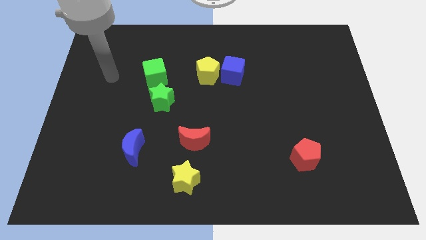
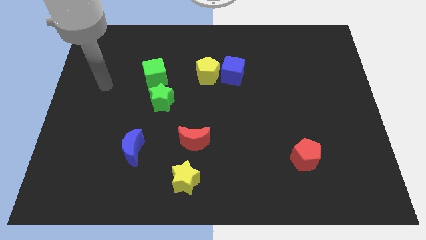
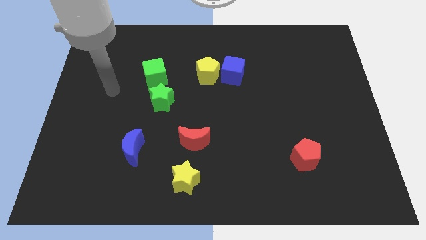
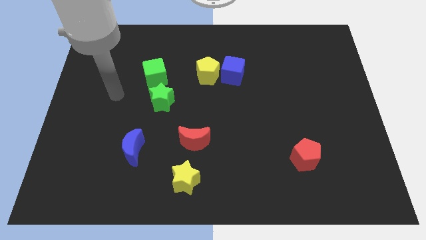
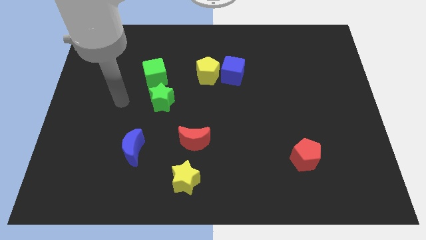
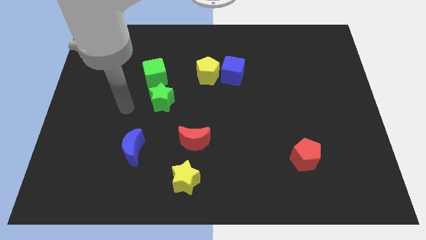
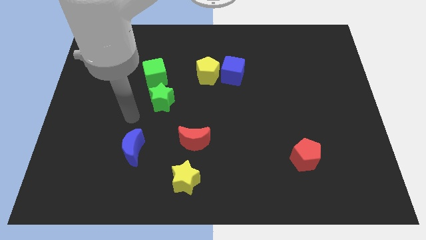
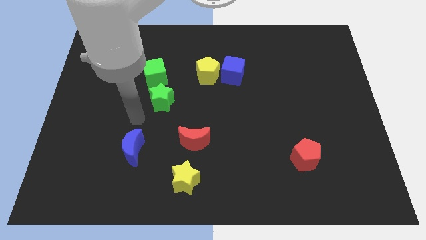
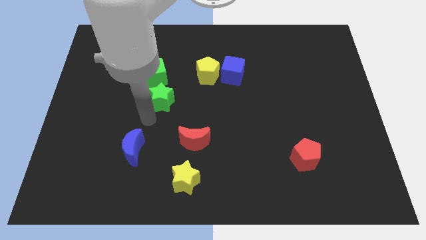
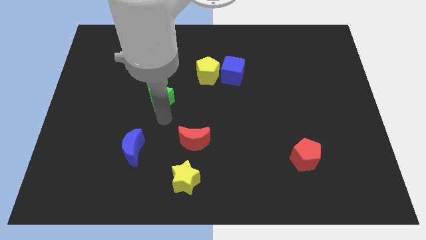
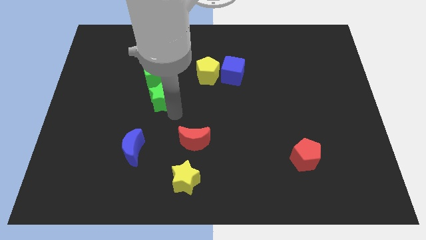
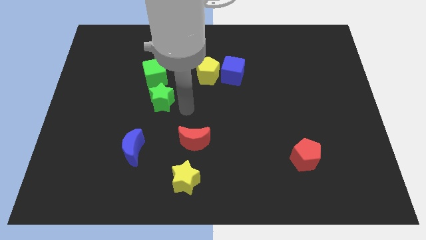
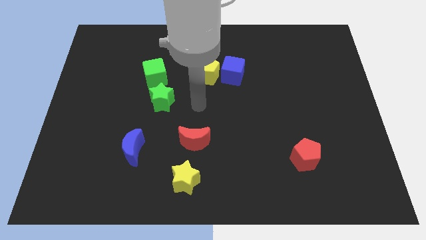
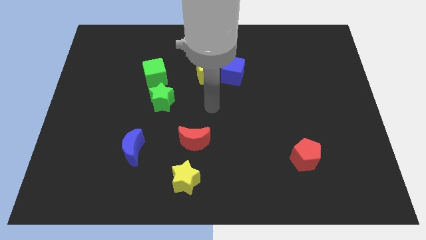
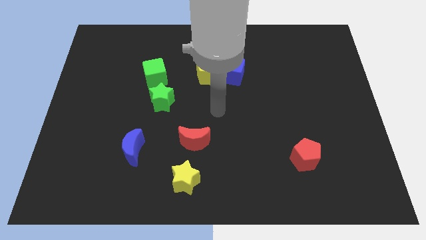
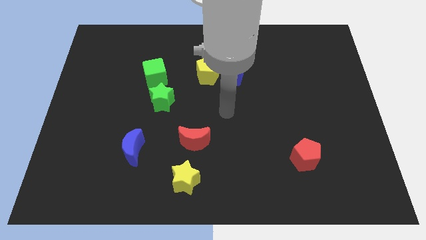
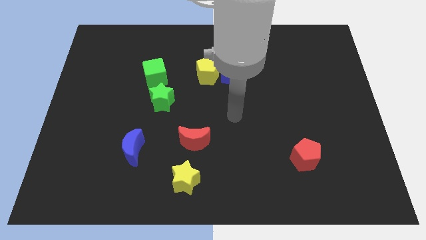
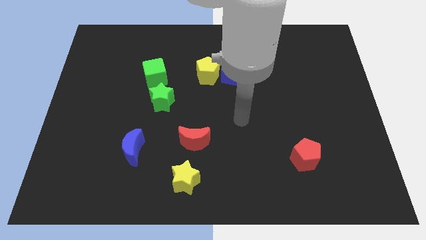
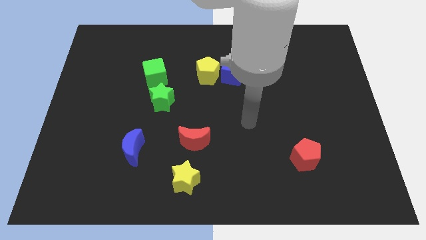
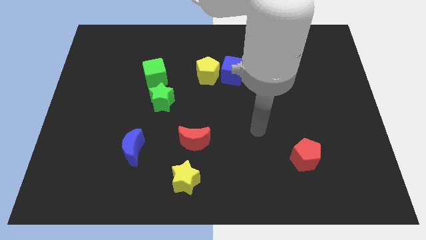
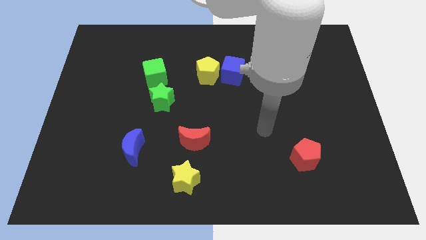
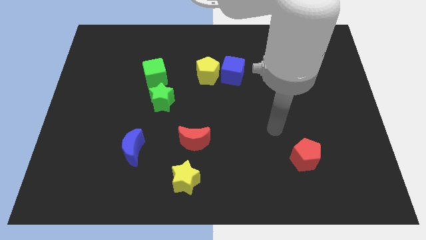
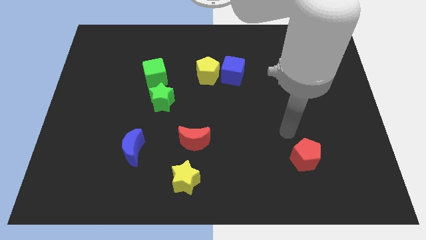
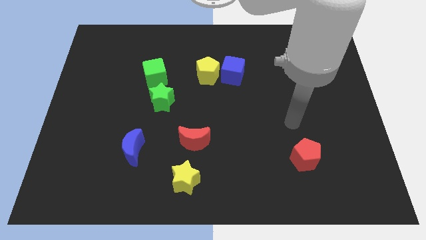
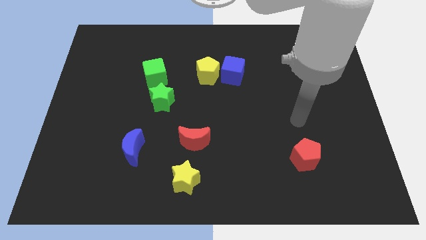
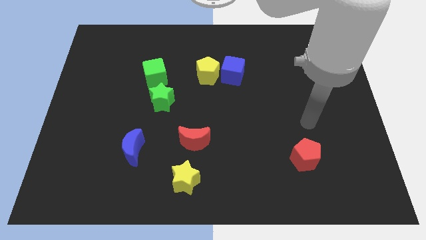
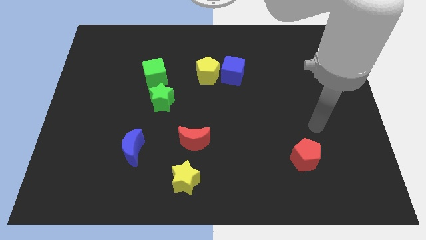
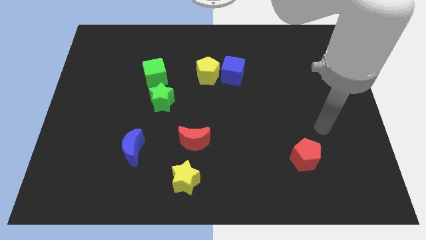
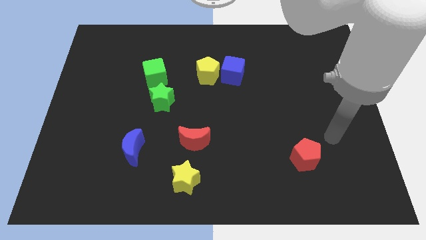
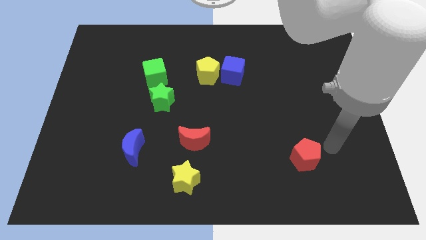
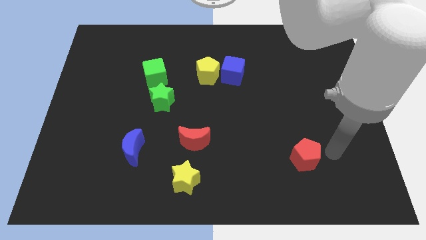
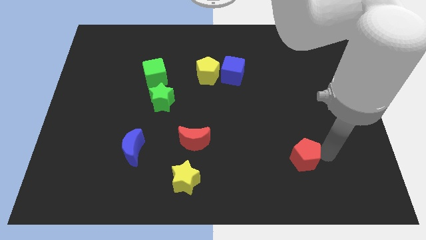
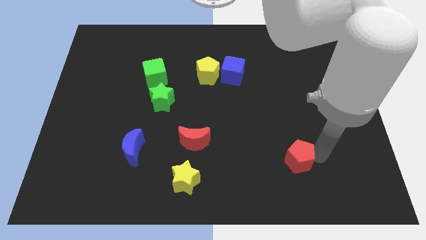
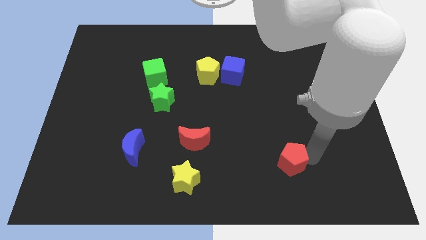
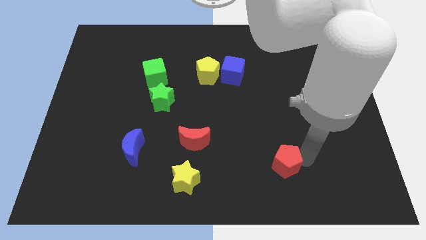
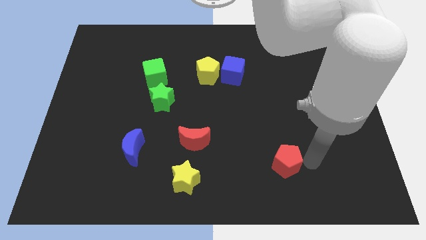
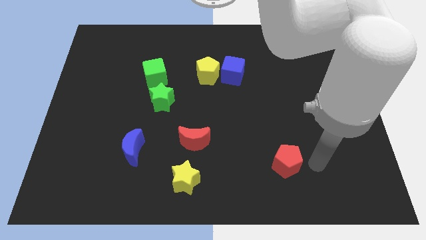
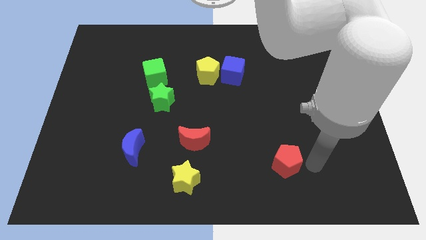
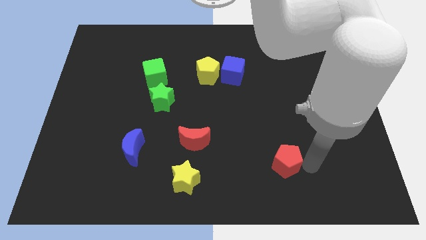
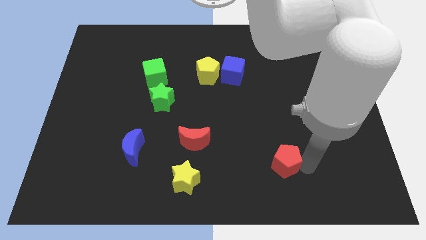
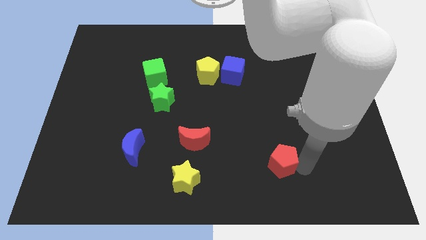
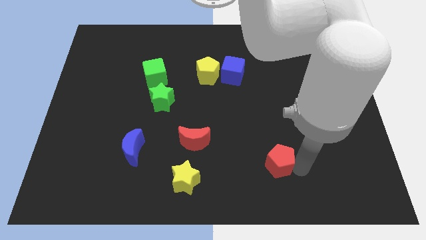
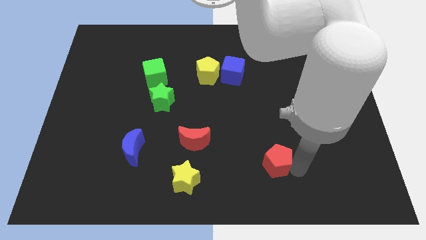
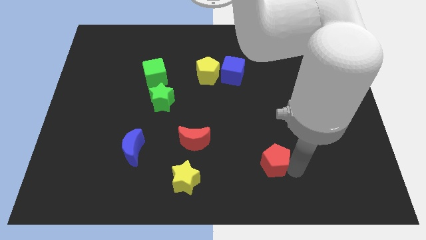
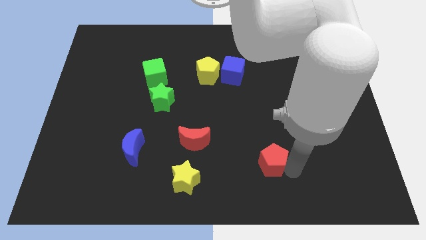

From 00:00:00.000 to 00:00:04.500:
push the red pentagon slightly left

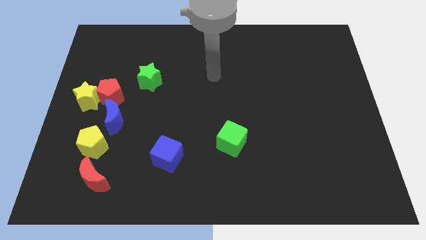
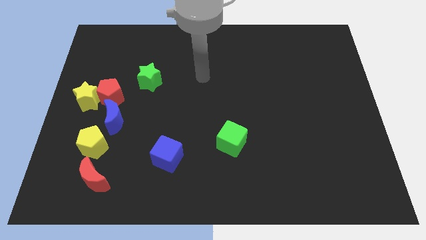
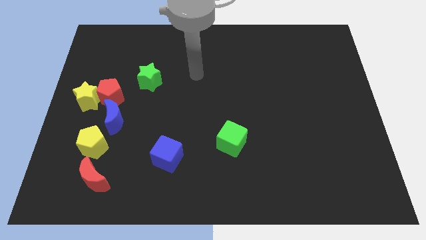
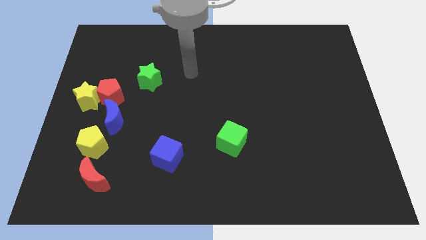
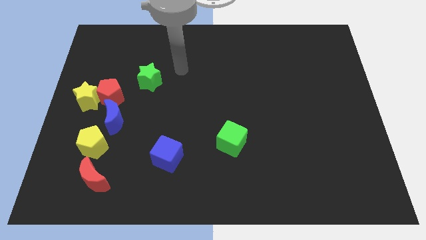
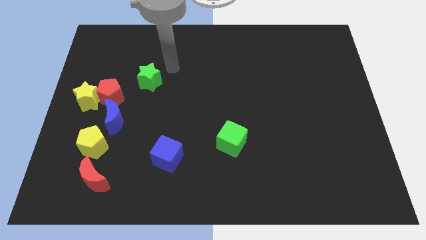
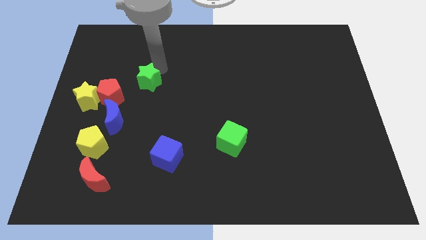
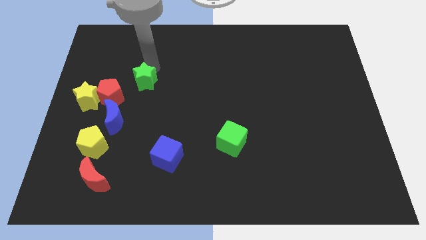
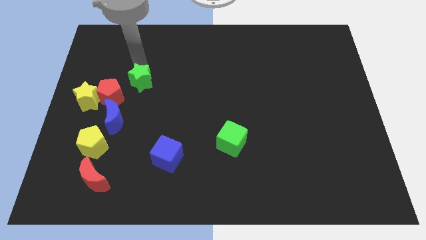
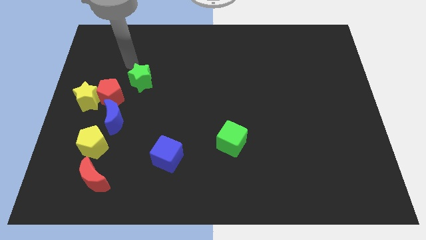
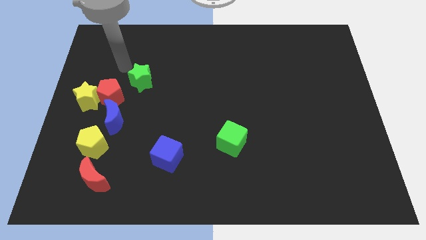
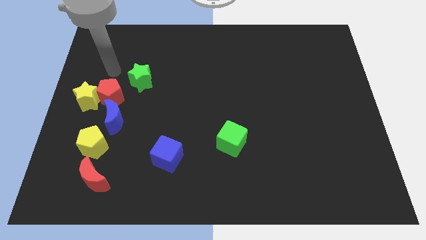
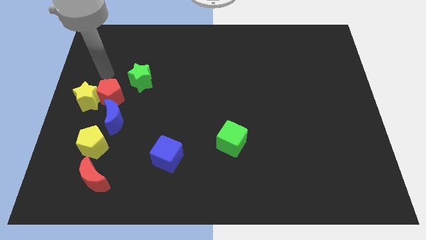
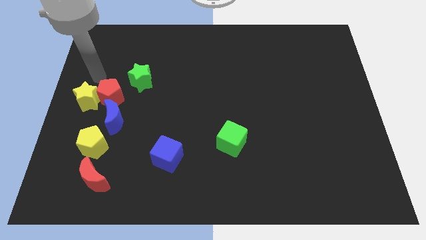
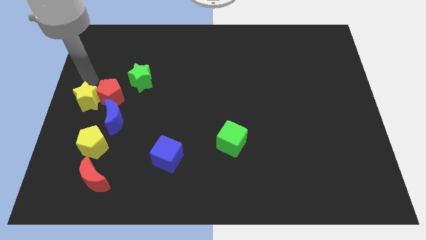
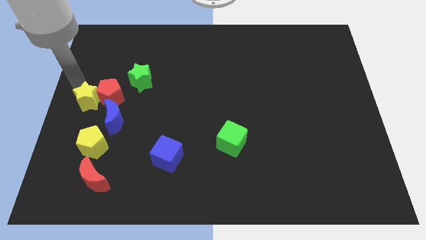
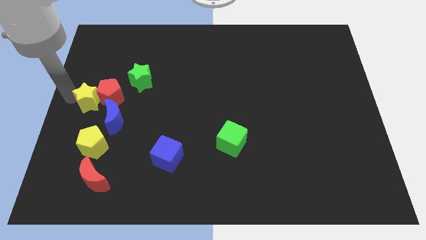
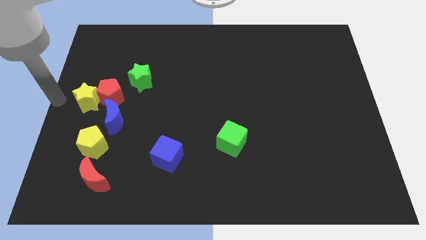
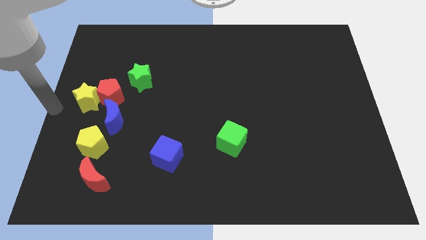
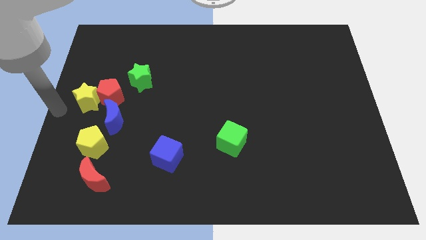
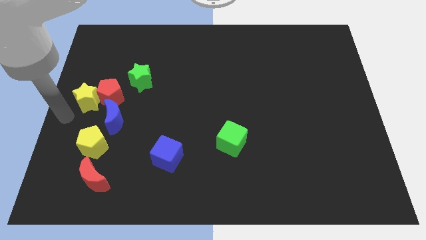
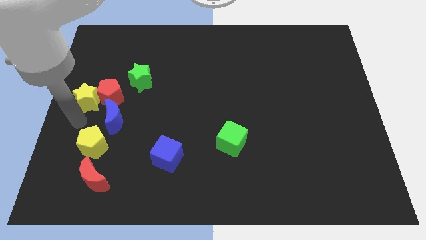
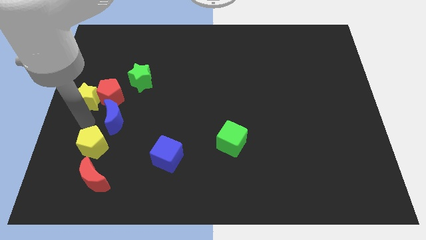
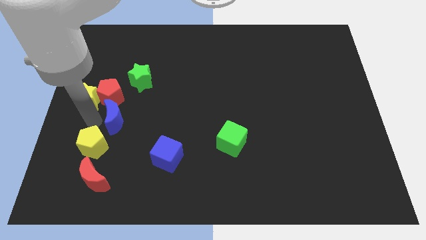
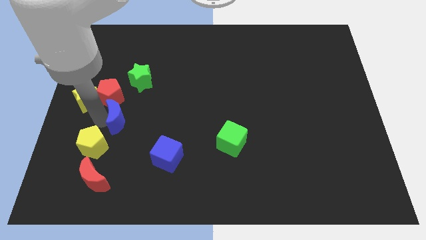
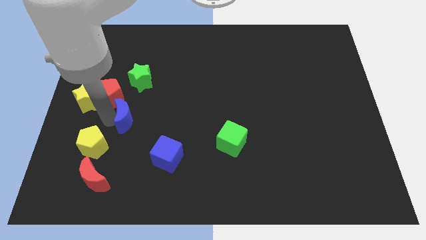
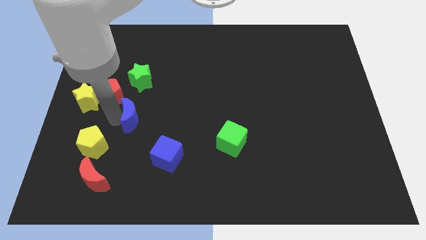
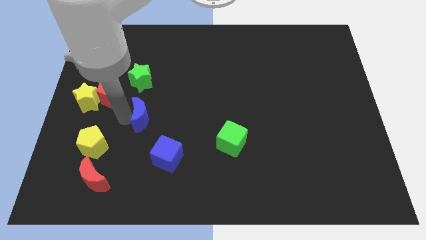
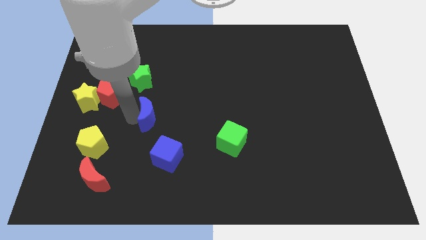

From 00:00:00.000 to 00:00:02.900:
push the blue moon a little bit to the right

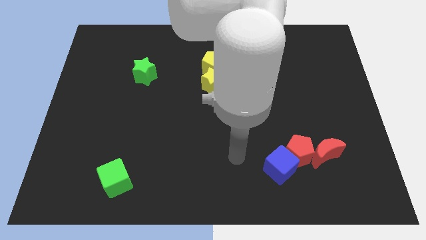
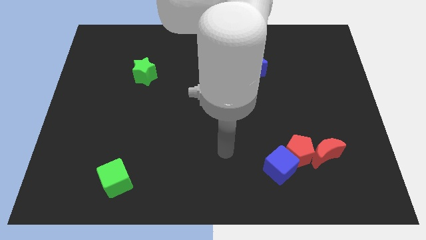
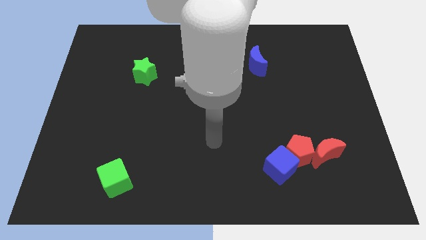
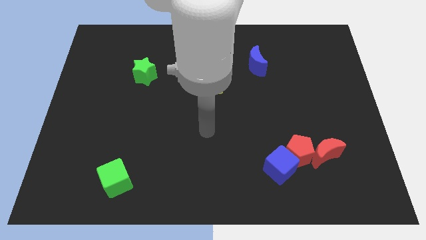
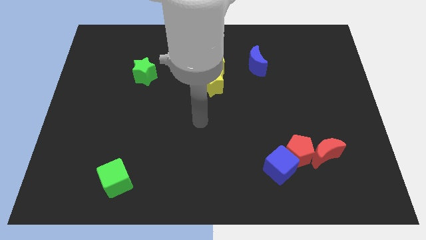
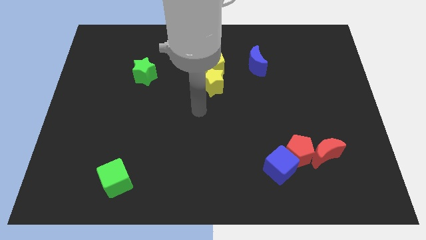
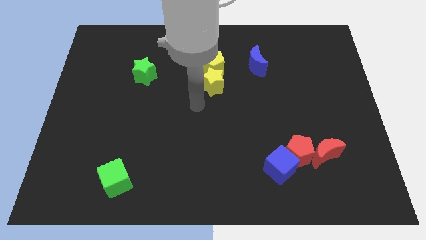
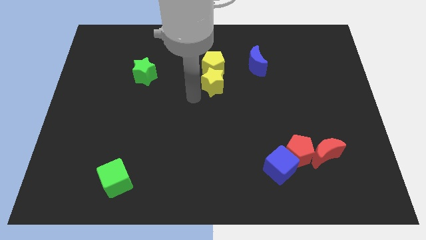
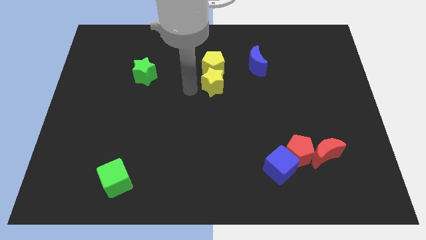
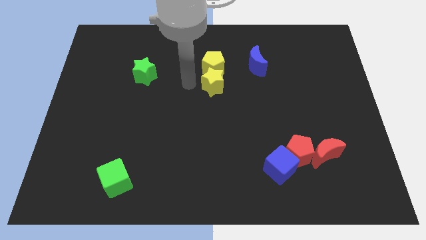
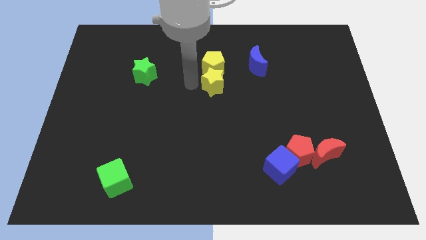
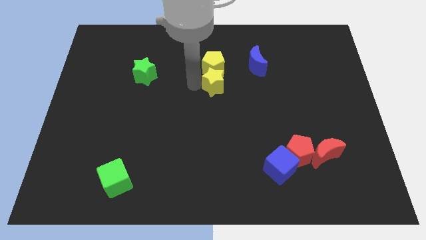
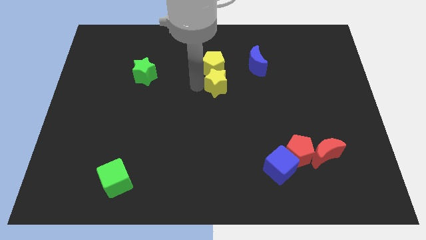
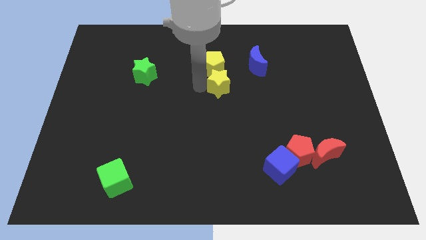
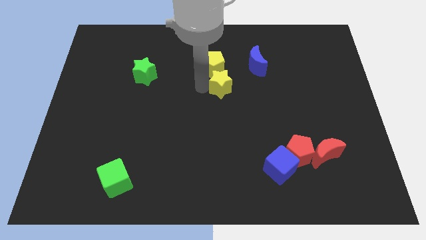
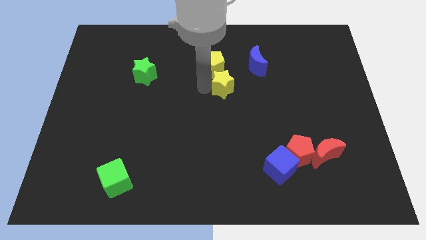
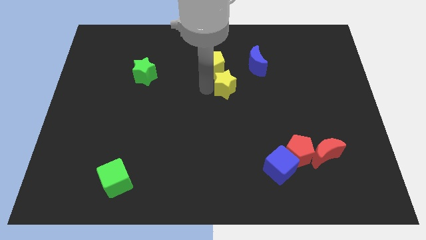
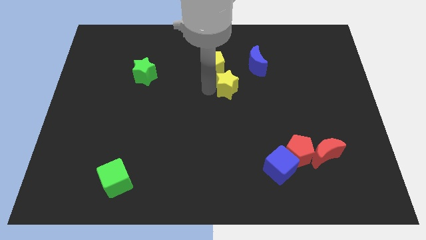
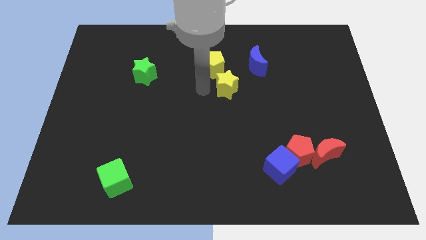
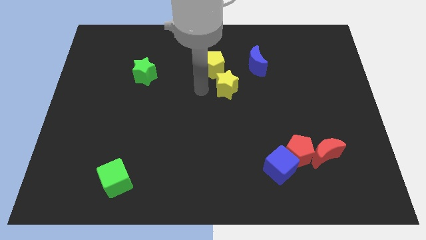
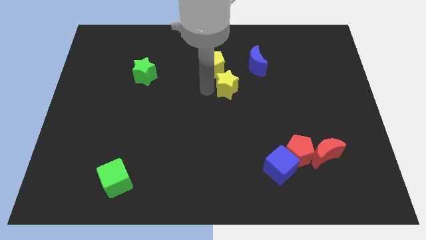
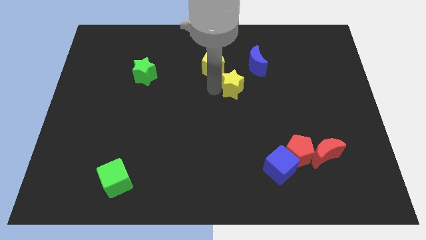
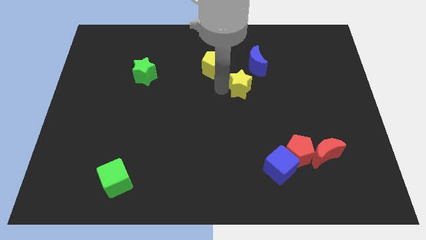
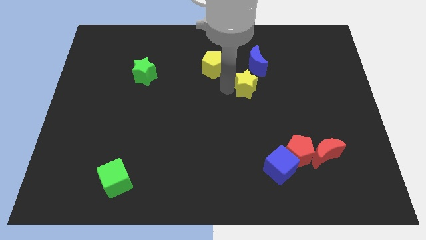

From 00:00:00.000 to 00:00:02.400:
push the yellow star right a bit
